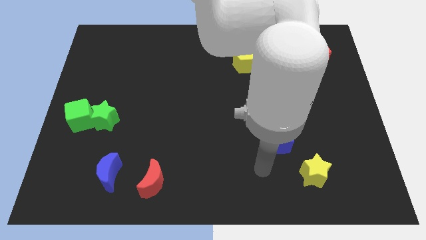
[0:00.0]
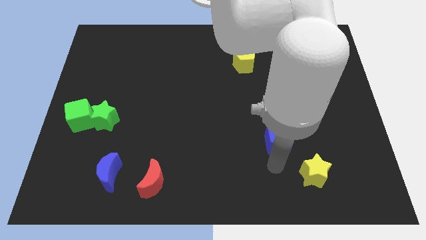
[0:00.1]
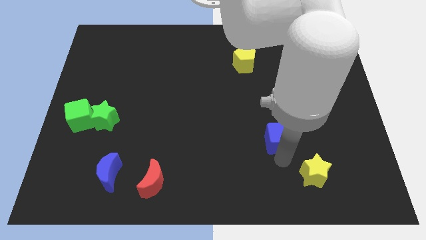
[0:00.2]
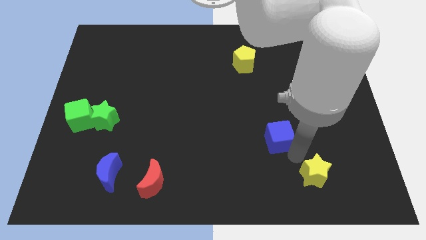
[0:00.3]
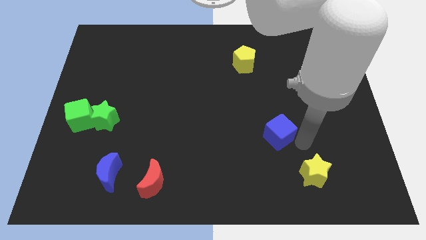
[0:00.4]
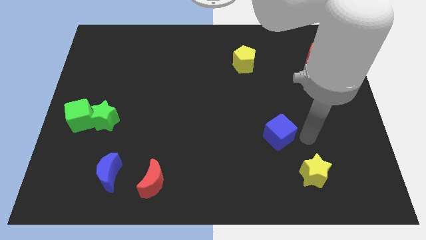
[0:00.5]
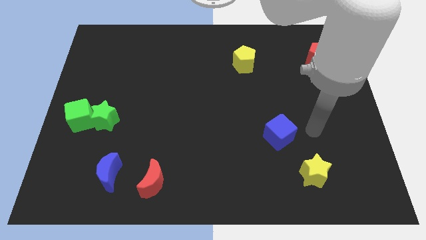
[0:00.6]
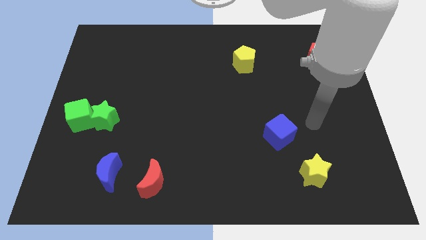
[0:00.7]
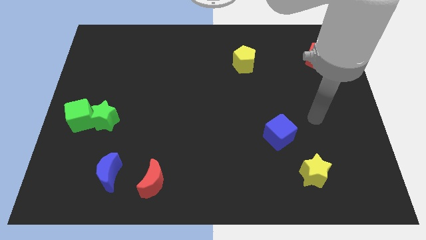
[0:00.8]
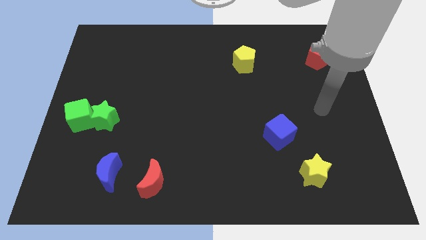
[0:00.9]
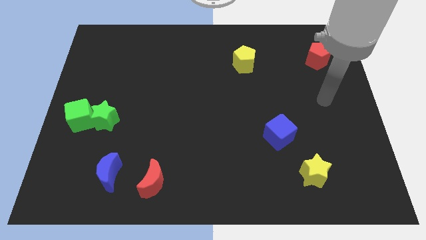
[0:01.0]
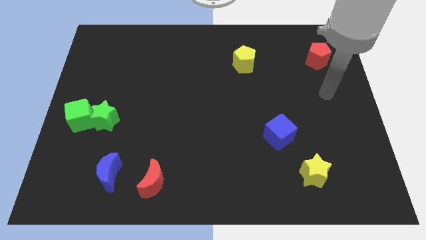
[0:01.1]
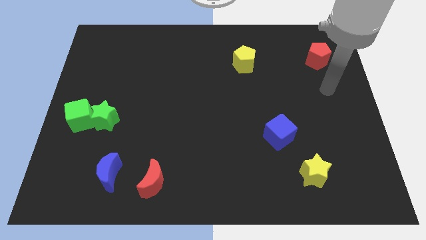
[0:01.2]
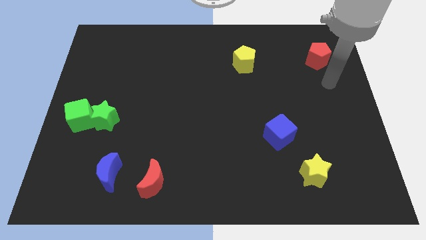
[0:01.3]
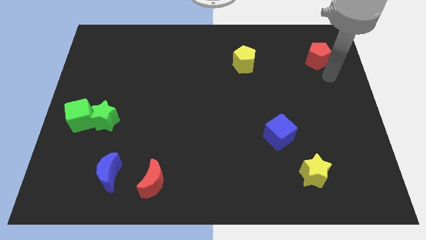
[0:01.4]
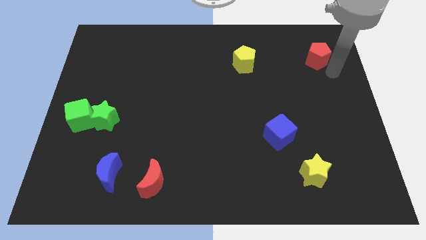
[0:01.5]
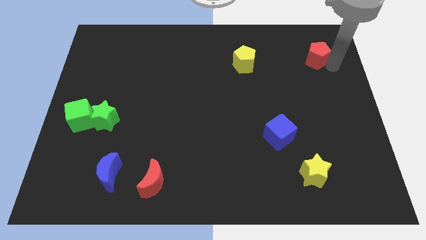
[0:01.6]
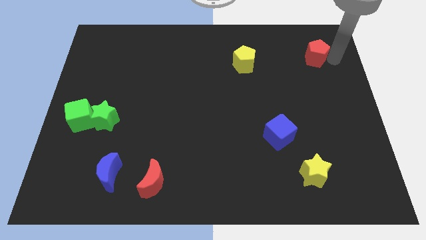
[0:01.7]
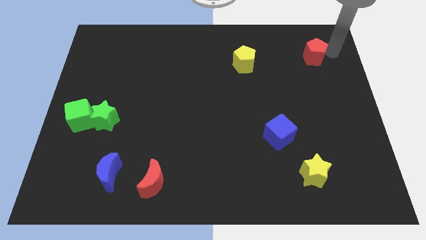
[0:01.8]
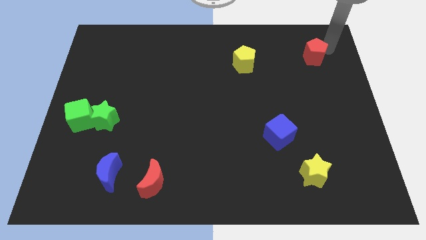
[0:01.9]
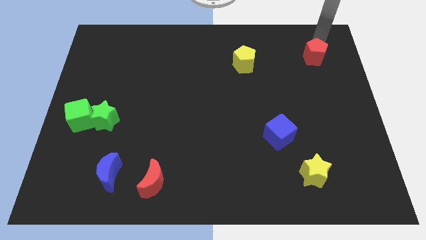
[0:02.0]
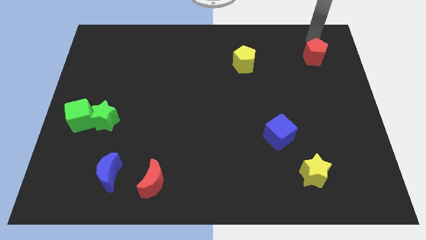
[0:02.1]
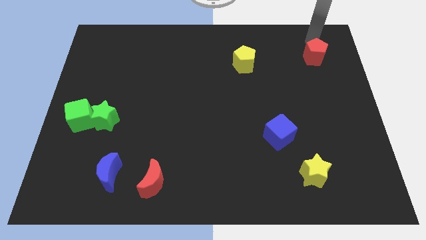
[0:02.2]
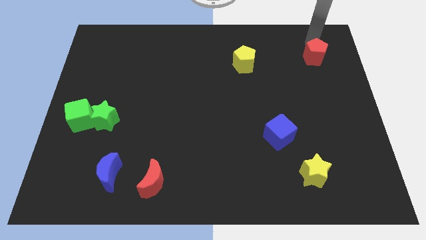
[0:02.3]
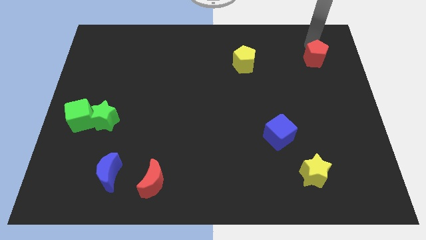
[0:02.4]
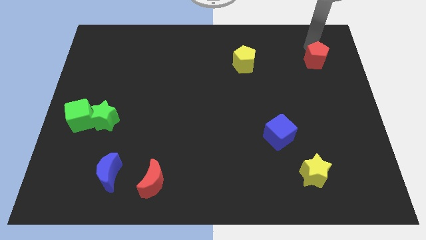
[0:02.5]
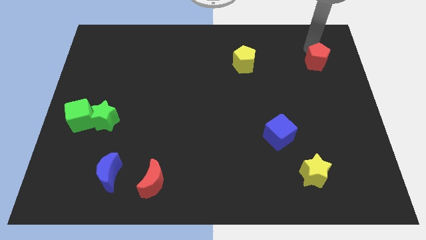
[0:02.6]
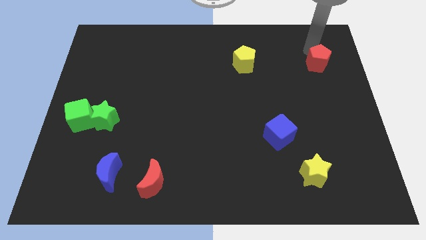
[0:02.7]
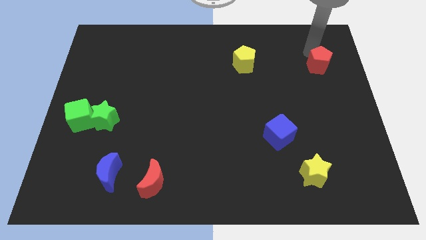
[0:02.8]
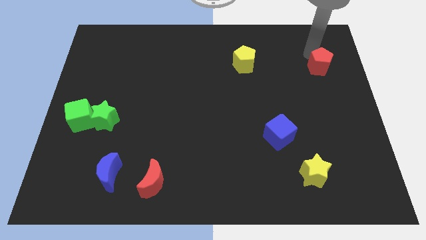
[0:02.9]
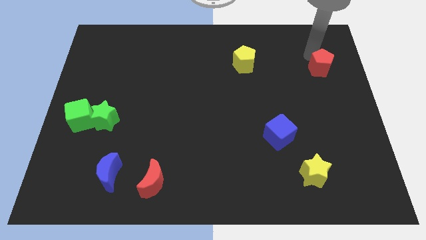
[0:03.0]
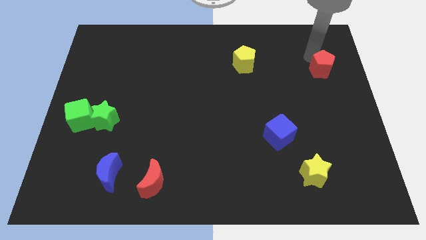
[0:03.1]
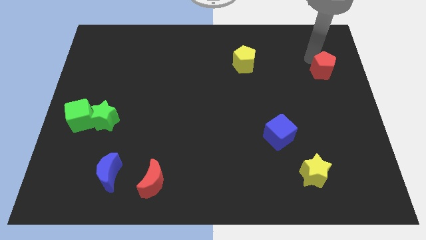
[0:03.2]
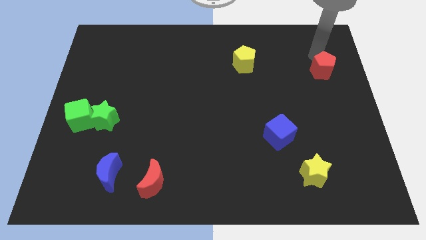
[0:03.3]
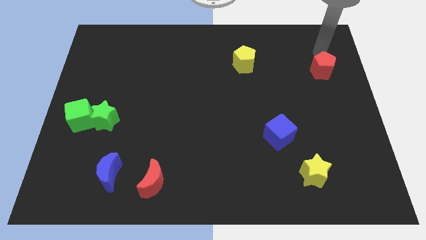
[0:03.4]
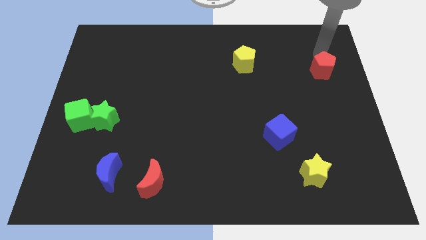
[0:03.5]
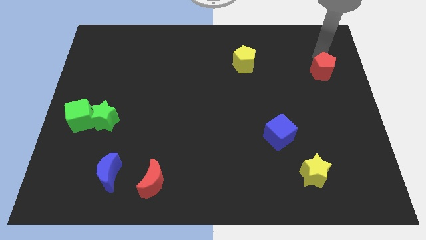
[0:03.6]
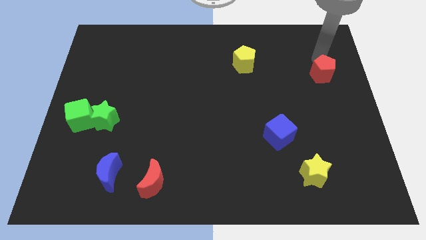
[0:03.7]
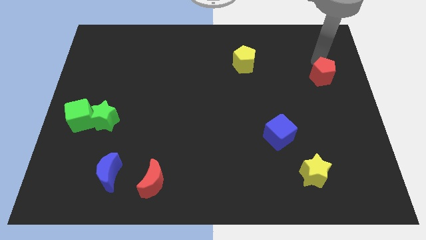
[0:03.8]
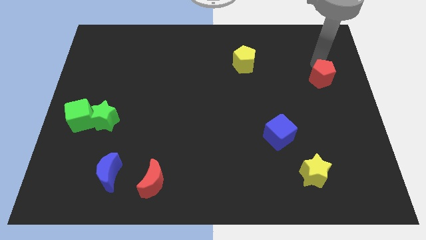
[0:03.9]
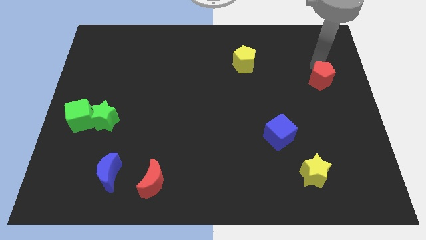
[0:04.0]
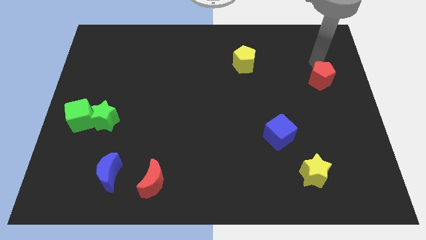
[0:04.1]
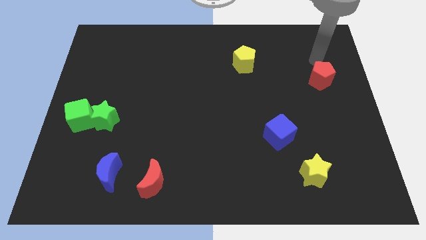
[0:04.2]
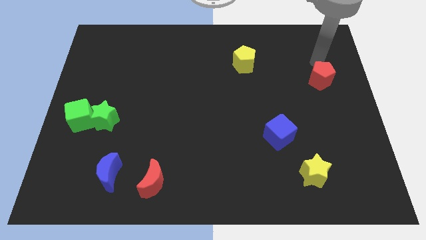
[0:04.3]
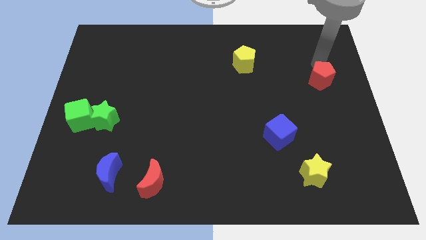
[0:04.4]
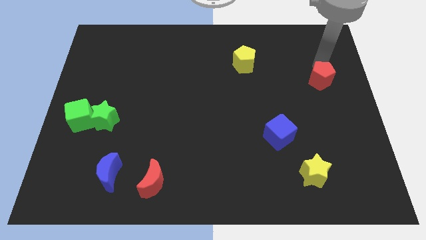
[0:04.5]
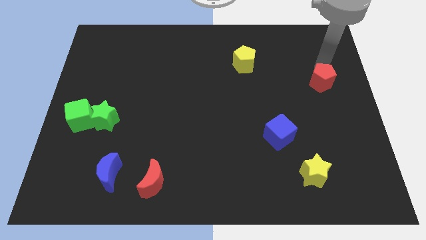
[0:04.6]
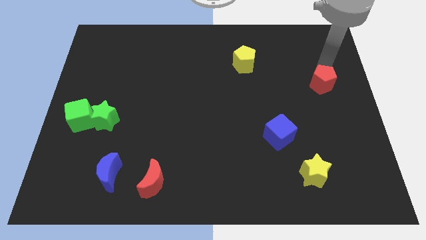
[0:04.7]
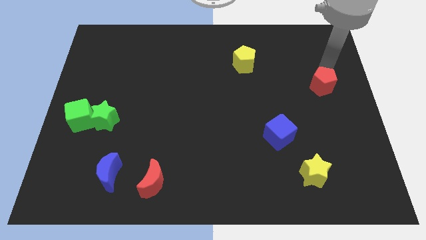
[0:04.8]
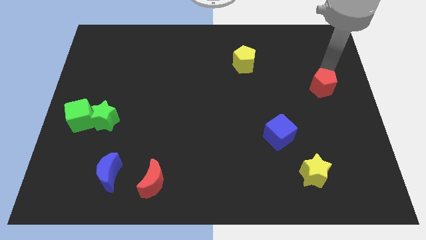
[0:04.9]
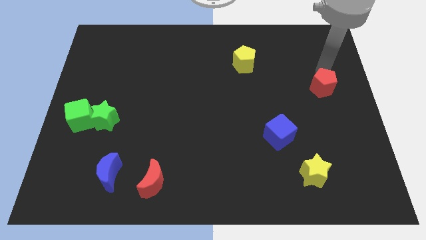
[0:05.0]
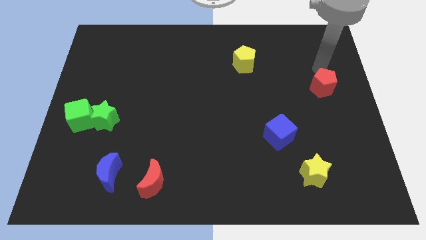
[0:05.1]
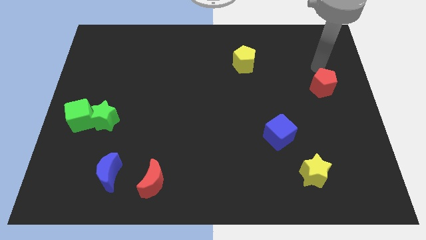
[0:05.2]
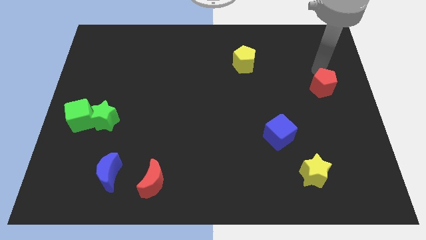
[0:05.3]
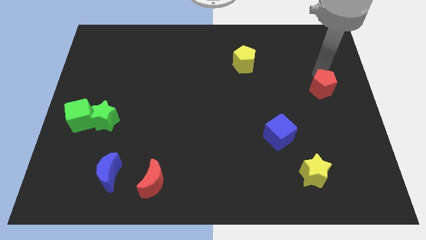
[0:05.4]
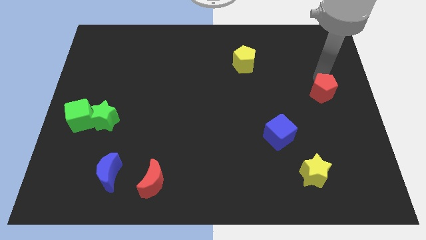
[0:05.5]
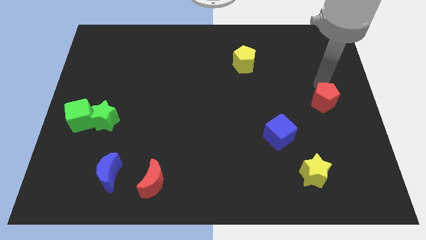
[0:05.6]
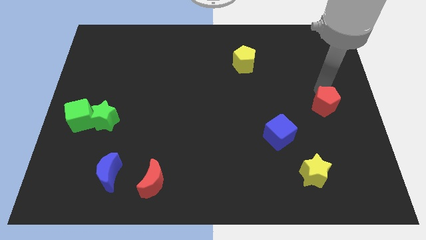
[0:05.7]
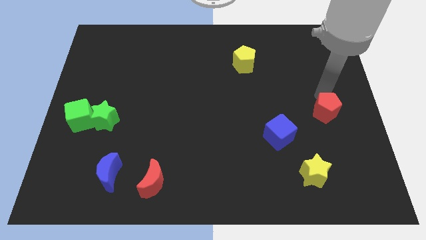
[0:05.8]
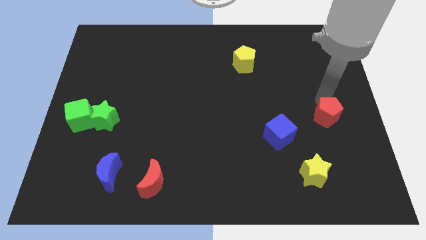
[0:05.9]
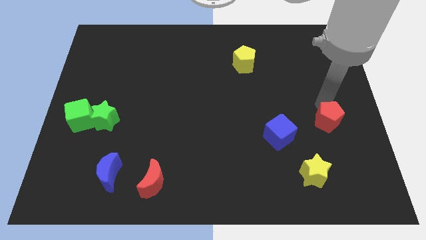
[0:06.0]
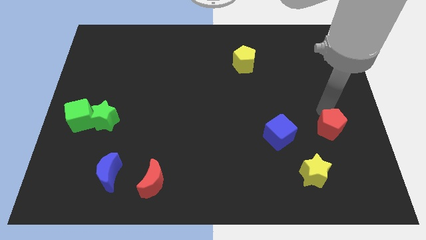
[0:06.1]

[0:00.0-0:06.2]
slide the red pentagon downwards

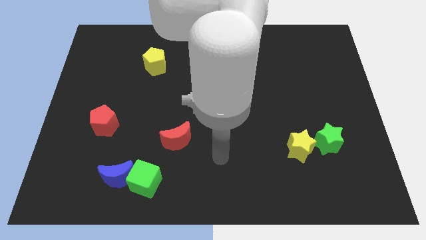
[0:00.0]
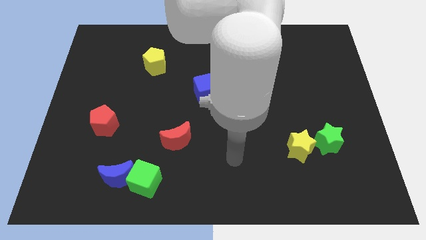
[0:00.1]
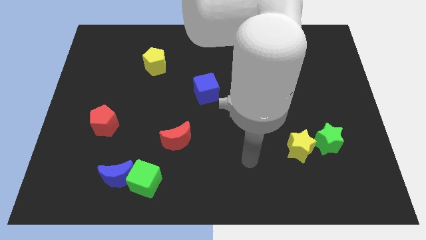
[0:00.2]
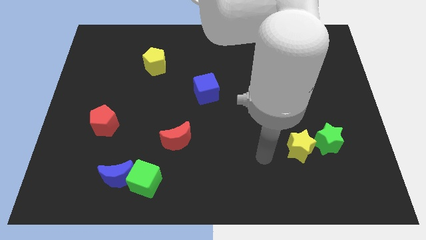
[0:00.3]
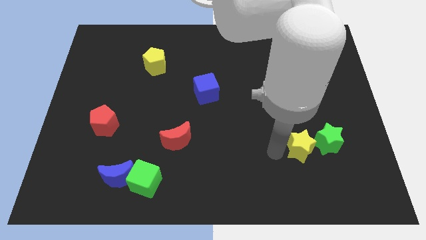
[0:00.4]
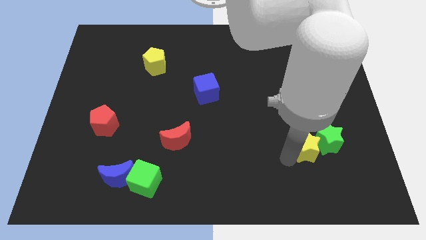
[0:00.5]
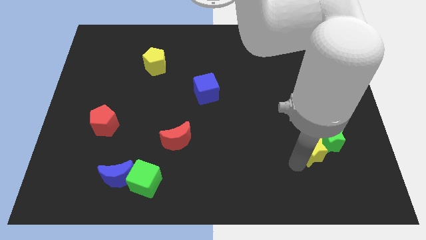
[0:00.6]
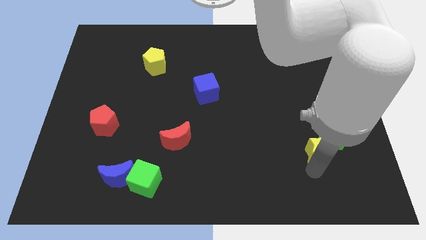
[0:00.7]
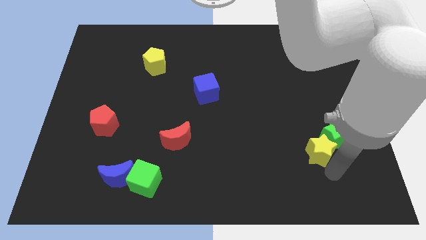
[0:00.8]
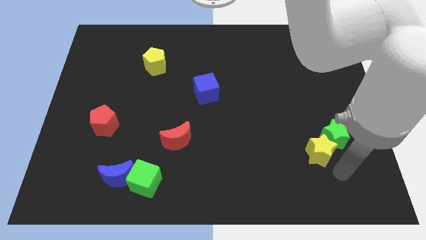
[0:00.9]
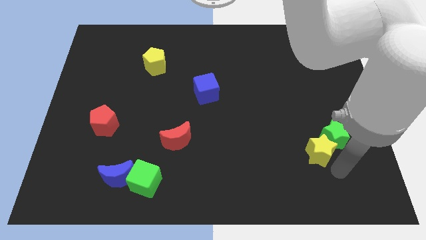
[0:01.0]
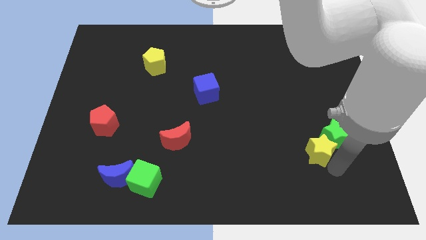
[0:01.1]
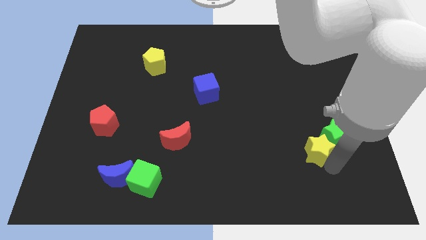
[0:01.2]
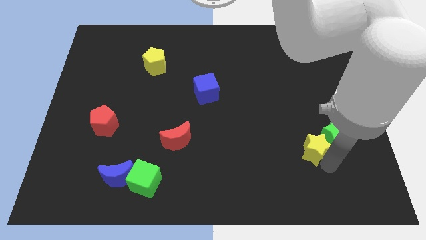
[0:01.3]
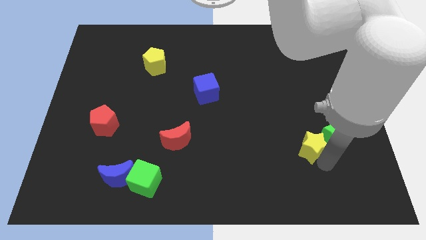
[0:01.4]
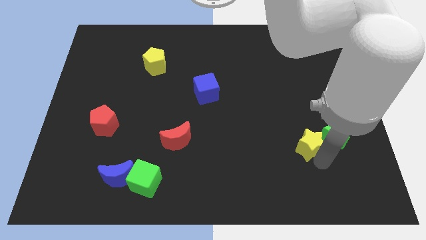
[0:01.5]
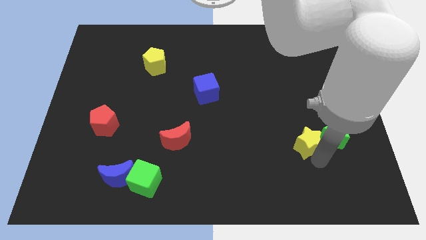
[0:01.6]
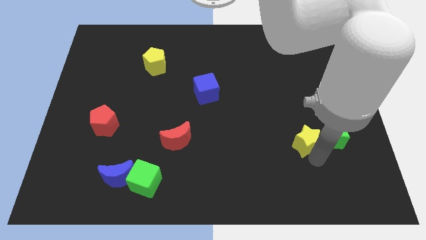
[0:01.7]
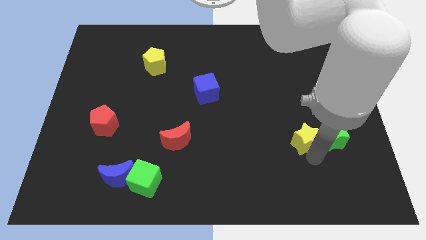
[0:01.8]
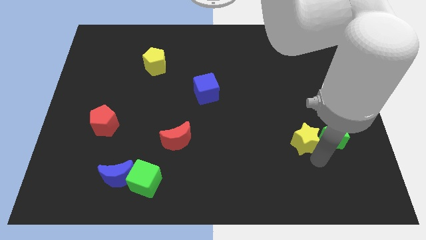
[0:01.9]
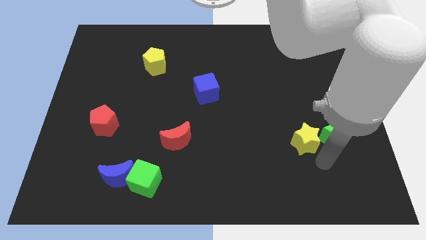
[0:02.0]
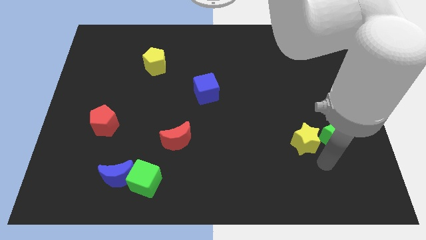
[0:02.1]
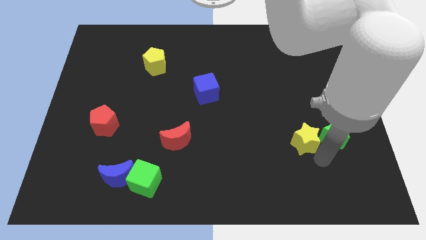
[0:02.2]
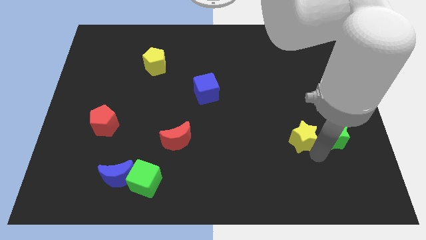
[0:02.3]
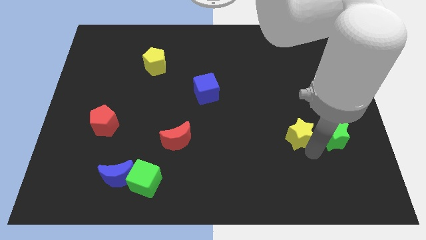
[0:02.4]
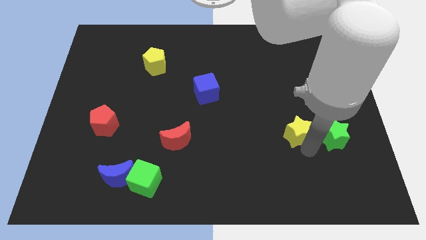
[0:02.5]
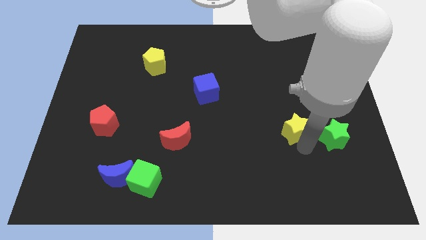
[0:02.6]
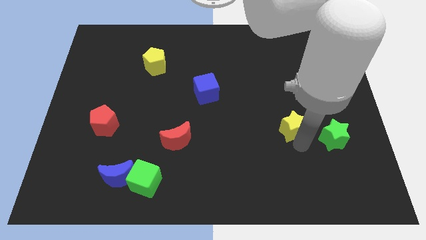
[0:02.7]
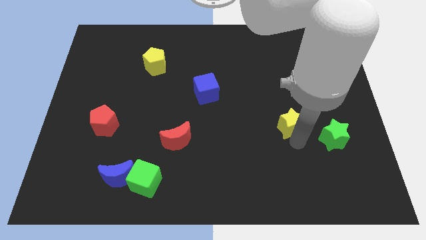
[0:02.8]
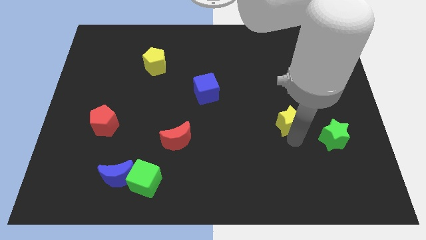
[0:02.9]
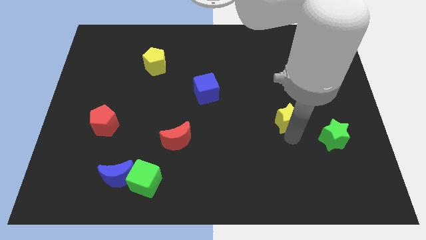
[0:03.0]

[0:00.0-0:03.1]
slide the yellow star a little upwards
